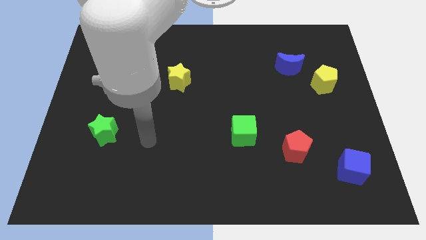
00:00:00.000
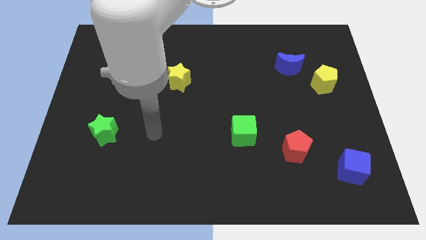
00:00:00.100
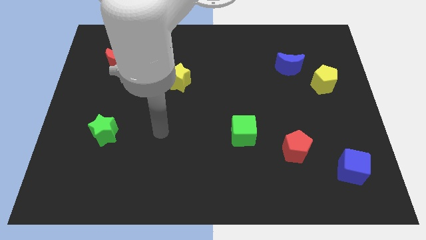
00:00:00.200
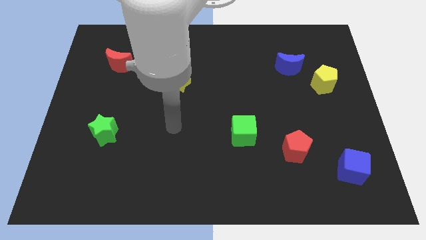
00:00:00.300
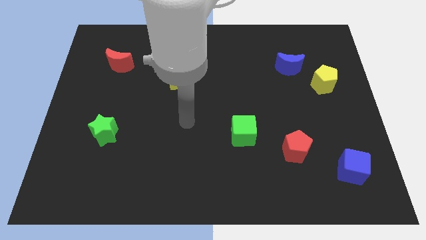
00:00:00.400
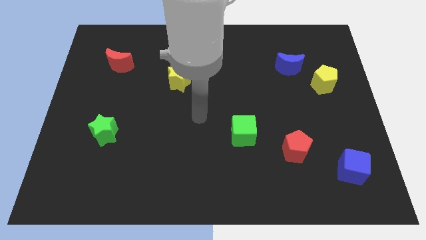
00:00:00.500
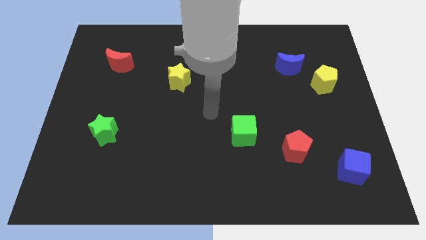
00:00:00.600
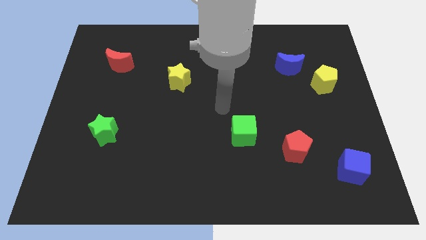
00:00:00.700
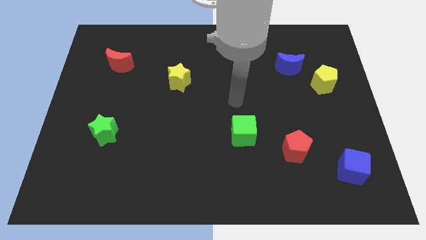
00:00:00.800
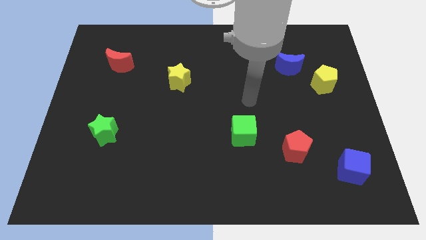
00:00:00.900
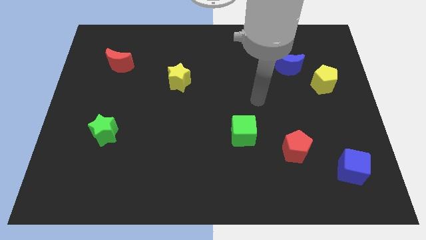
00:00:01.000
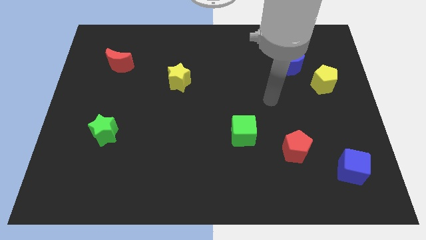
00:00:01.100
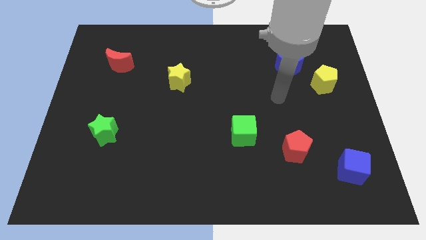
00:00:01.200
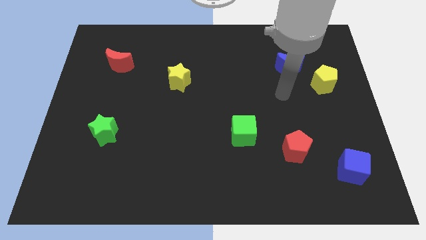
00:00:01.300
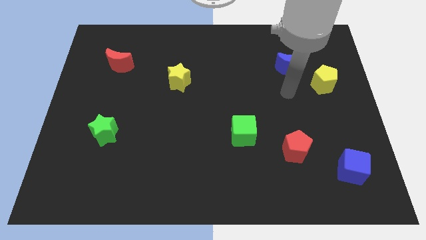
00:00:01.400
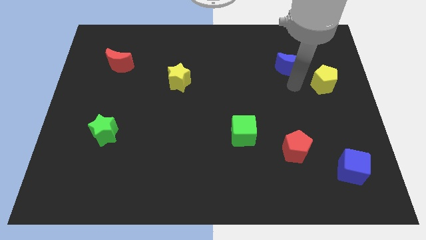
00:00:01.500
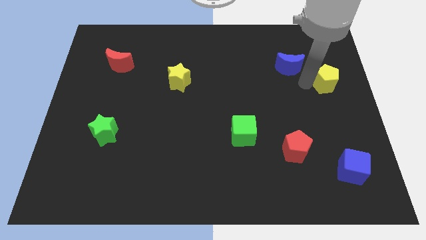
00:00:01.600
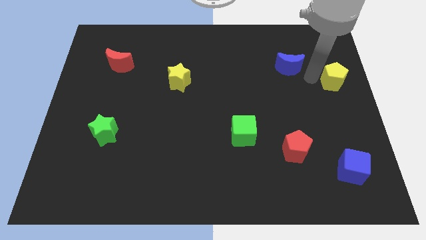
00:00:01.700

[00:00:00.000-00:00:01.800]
pull the blue moon apart from the yellow pentagon

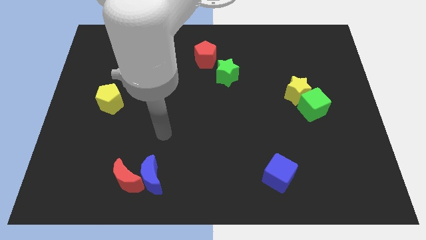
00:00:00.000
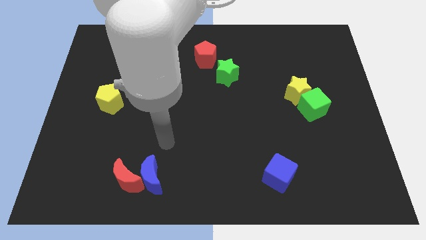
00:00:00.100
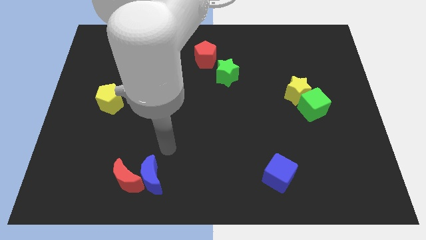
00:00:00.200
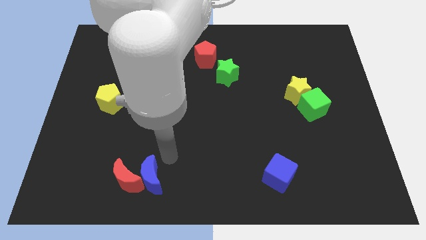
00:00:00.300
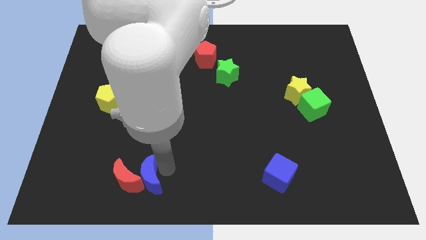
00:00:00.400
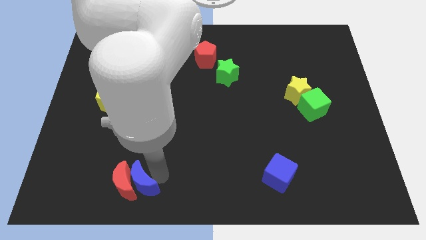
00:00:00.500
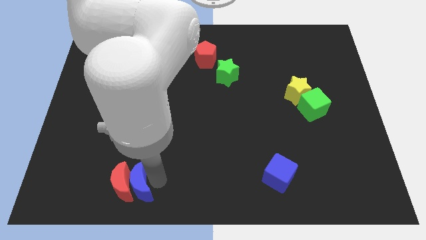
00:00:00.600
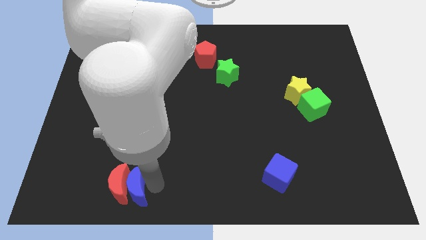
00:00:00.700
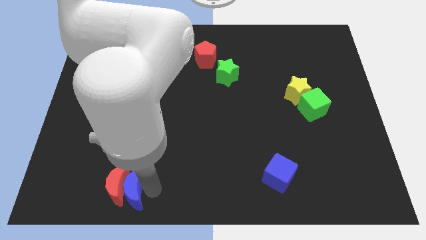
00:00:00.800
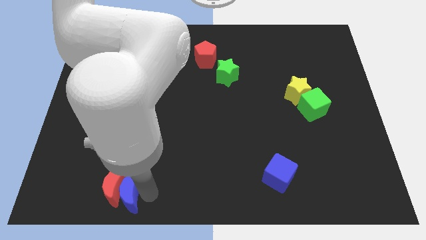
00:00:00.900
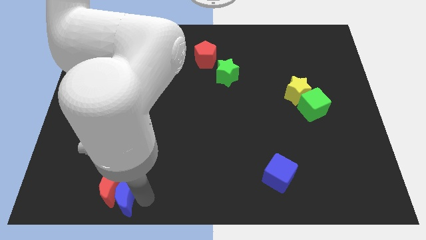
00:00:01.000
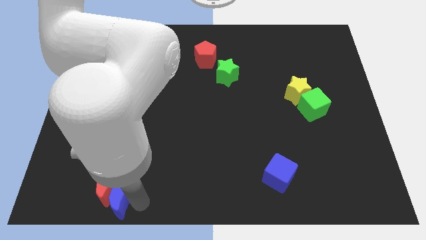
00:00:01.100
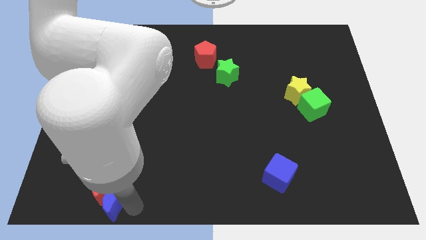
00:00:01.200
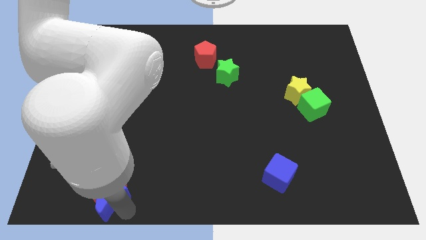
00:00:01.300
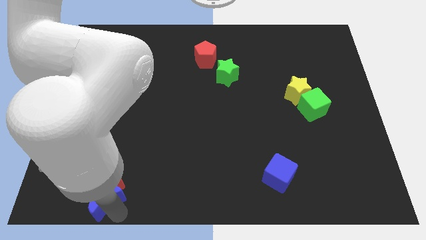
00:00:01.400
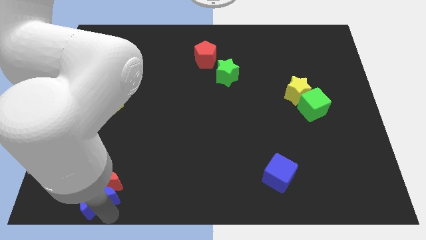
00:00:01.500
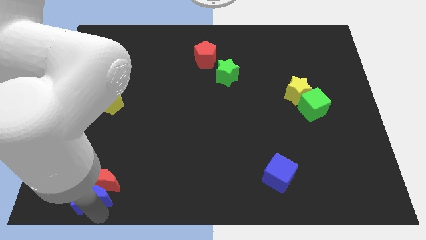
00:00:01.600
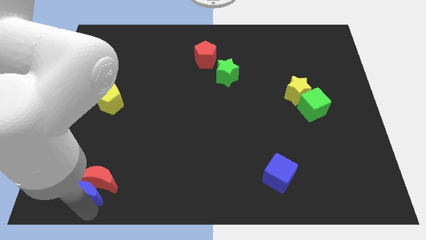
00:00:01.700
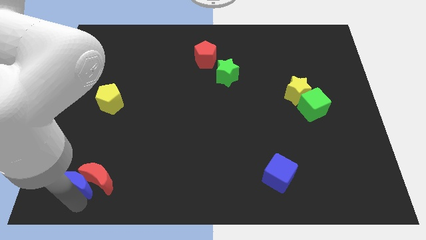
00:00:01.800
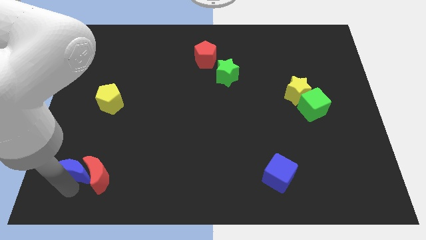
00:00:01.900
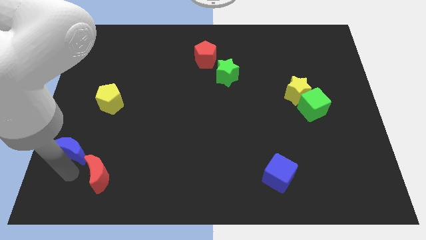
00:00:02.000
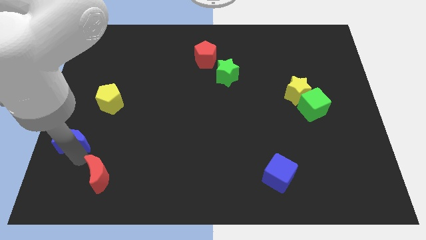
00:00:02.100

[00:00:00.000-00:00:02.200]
pull the red moon apart from the blue moon

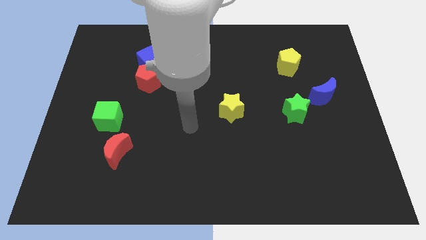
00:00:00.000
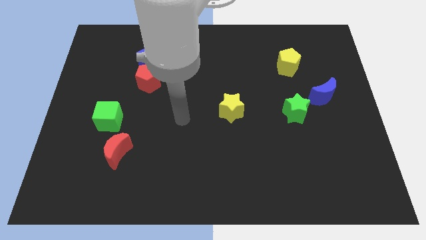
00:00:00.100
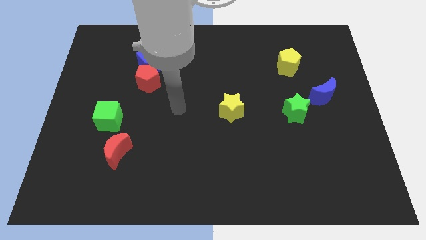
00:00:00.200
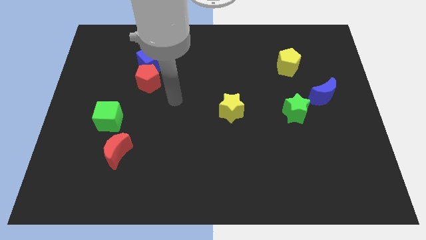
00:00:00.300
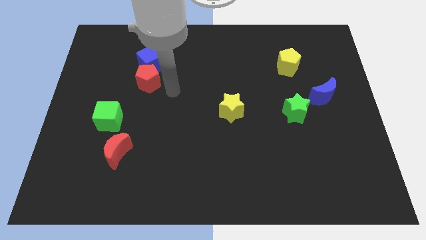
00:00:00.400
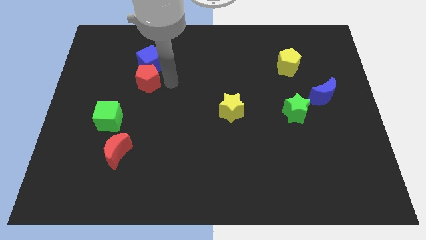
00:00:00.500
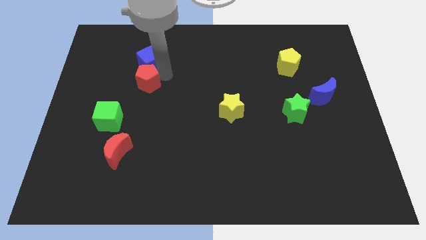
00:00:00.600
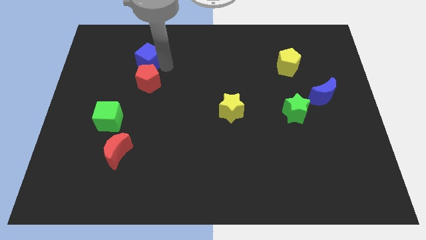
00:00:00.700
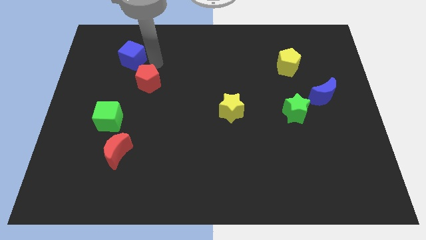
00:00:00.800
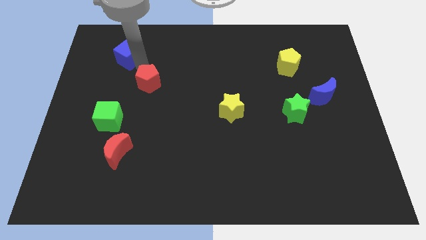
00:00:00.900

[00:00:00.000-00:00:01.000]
move the red pentagon away from the blue cube

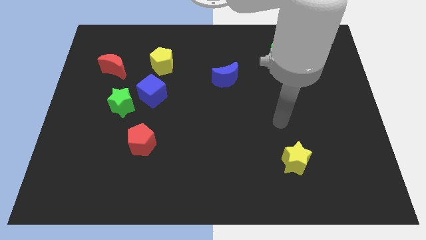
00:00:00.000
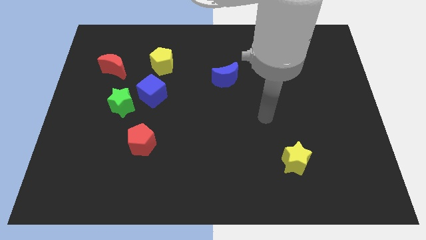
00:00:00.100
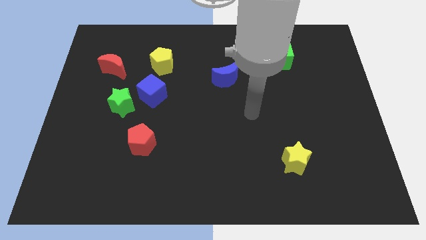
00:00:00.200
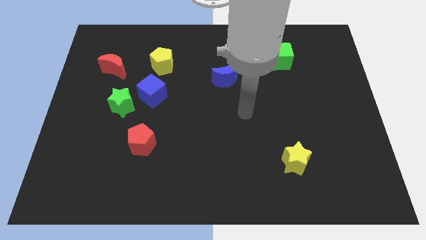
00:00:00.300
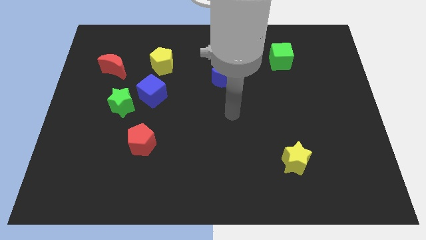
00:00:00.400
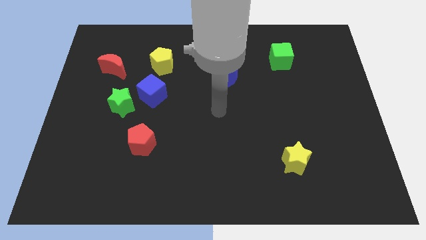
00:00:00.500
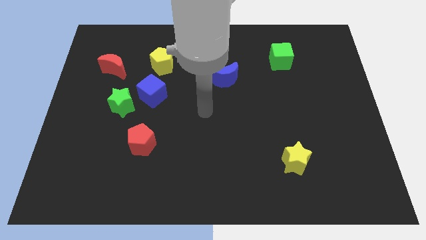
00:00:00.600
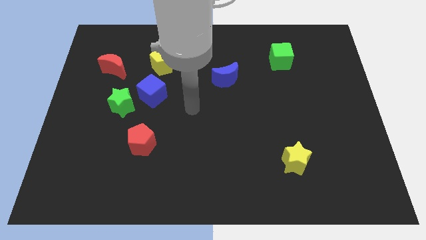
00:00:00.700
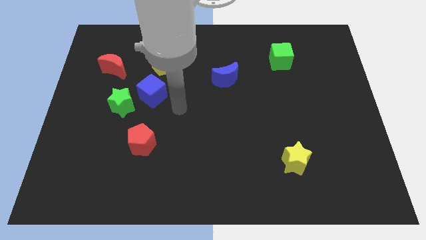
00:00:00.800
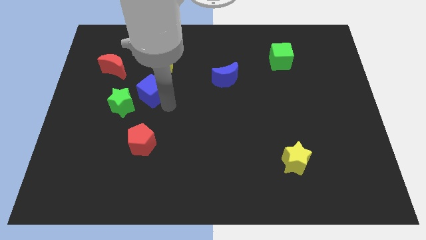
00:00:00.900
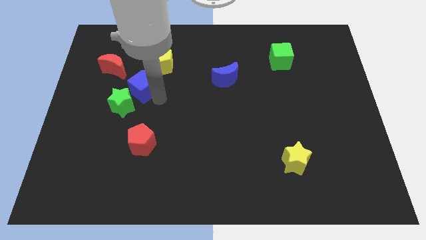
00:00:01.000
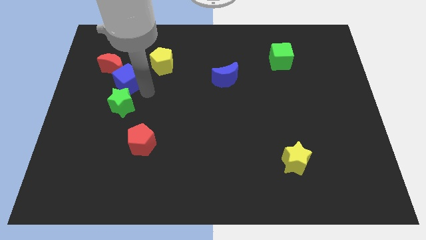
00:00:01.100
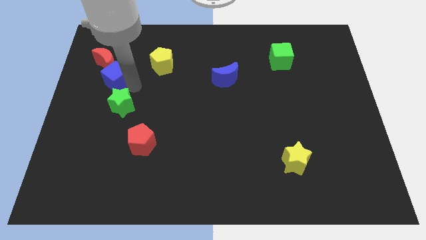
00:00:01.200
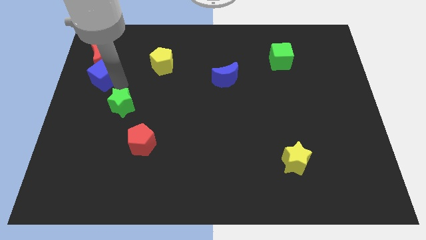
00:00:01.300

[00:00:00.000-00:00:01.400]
separate the green star from the blue cube

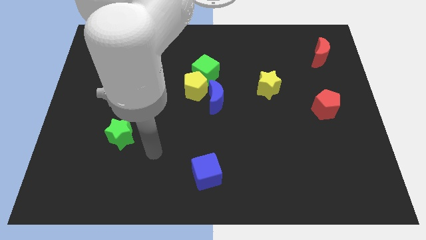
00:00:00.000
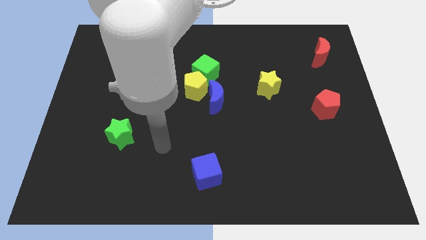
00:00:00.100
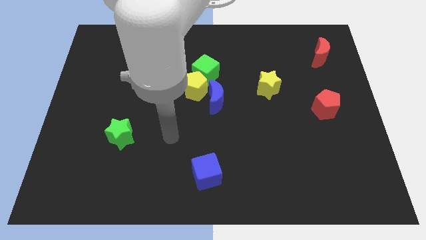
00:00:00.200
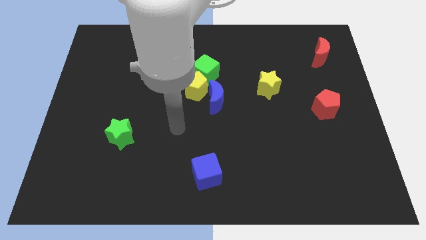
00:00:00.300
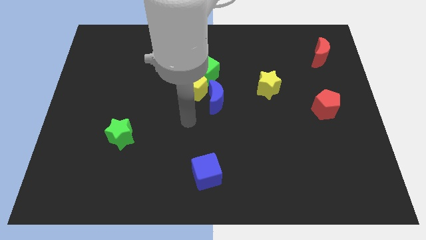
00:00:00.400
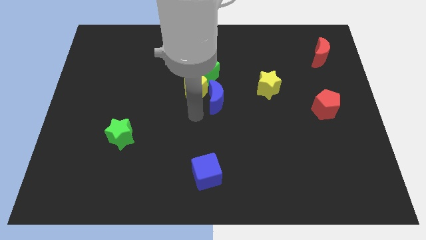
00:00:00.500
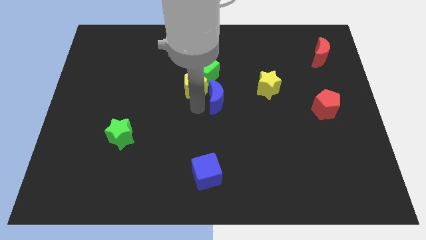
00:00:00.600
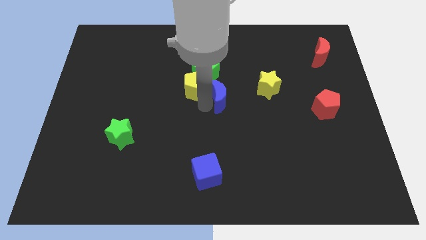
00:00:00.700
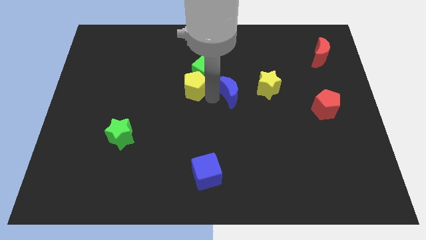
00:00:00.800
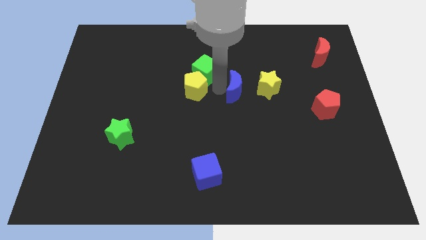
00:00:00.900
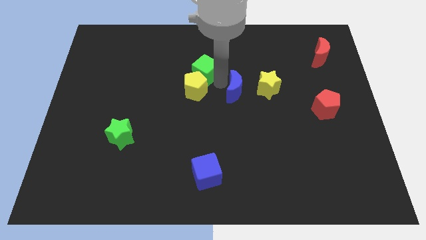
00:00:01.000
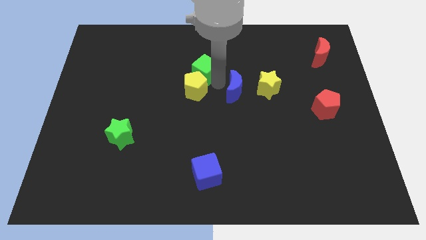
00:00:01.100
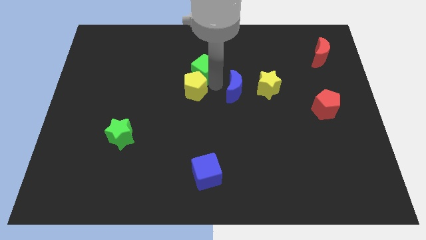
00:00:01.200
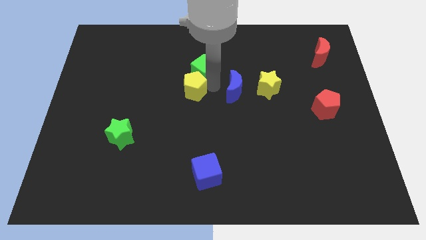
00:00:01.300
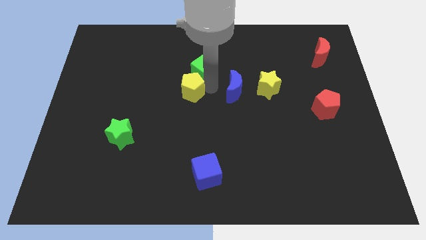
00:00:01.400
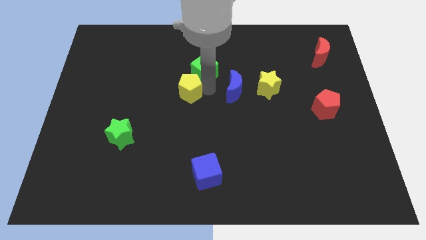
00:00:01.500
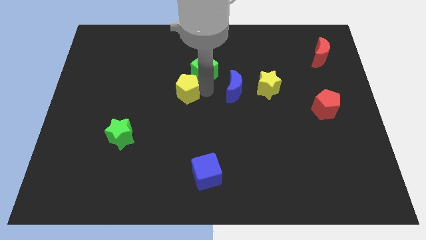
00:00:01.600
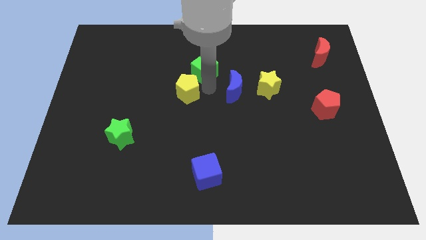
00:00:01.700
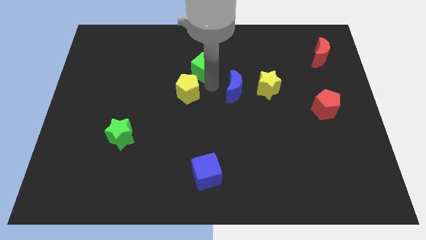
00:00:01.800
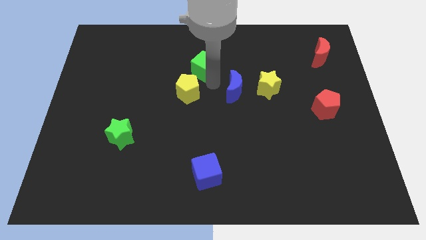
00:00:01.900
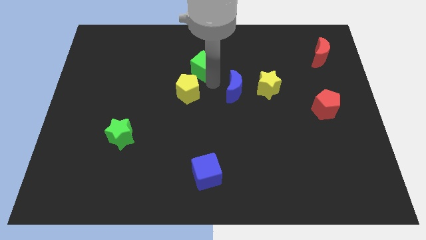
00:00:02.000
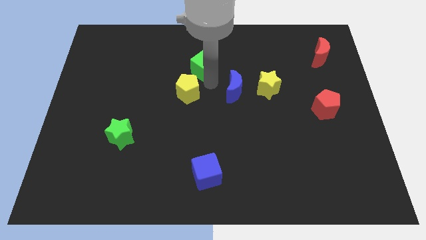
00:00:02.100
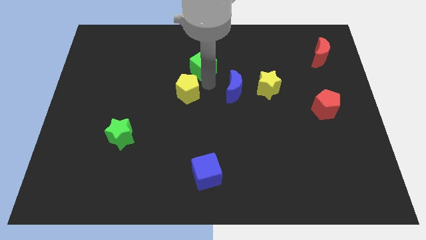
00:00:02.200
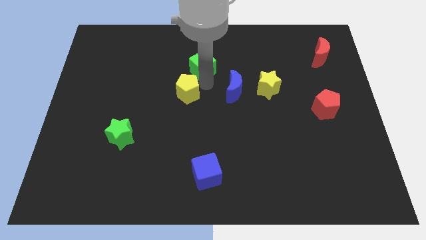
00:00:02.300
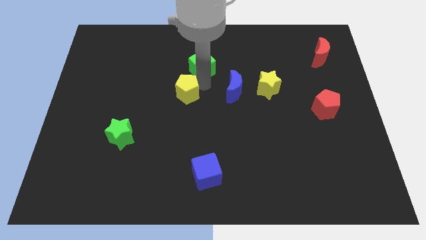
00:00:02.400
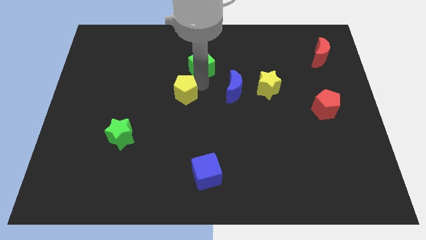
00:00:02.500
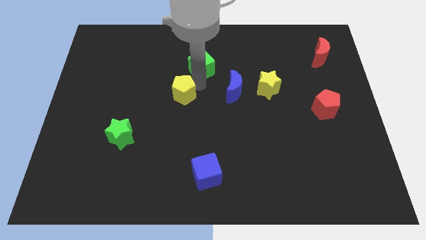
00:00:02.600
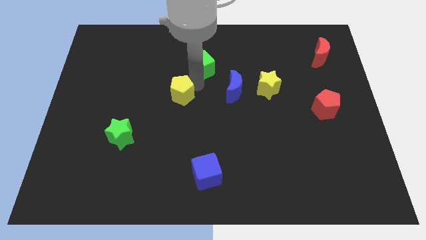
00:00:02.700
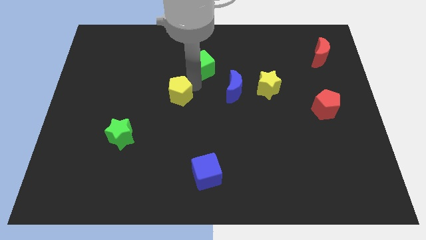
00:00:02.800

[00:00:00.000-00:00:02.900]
separate the yellow pentagon from the green cube and blue moon
